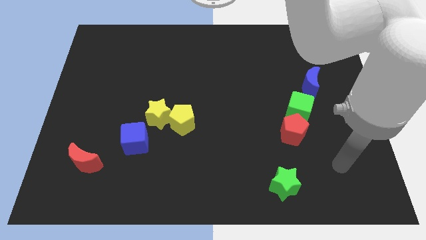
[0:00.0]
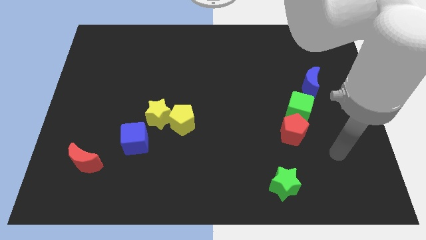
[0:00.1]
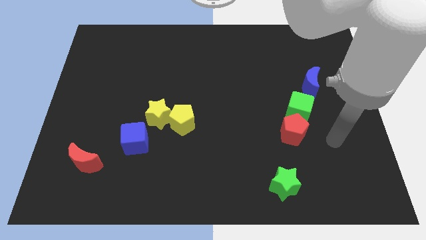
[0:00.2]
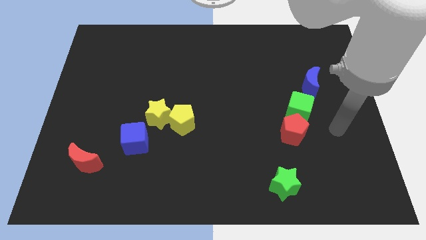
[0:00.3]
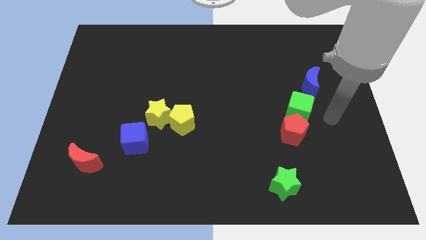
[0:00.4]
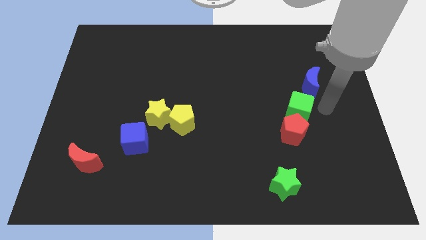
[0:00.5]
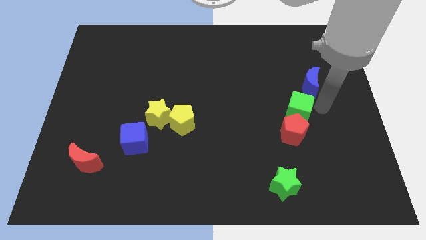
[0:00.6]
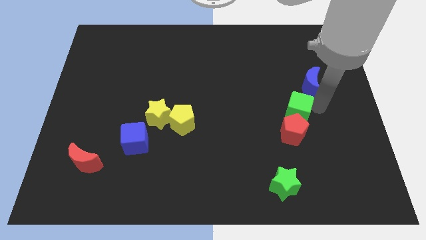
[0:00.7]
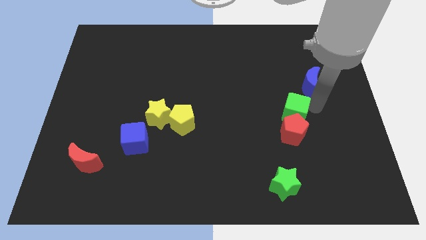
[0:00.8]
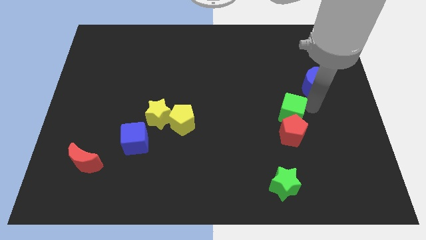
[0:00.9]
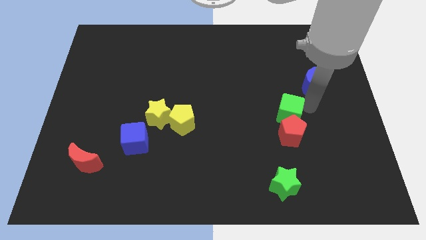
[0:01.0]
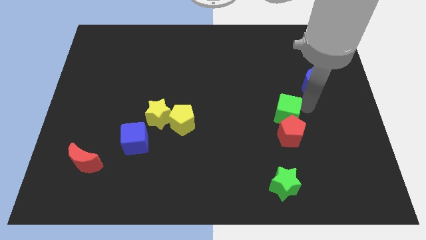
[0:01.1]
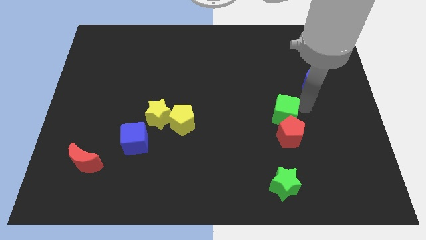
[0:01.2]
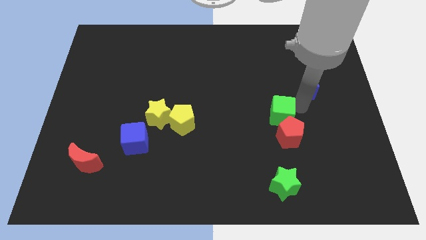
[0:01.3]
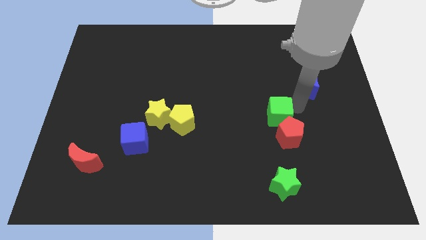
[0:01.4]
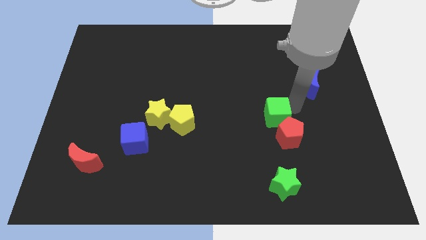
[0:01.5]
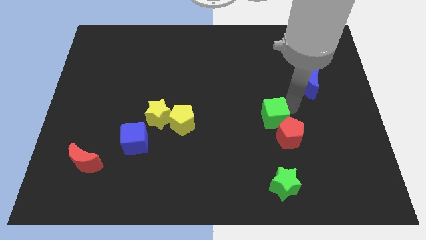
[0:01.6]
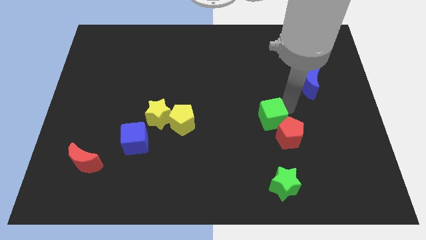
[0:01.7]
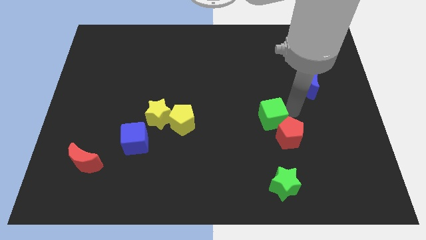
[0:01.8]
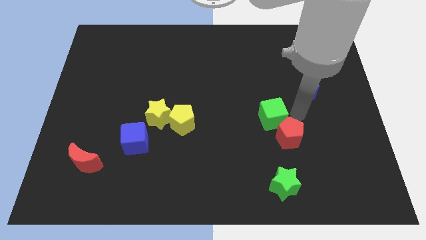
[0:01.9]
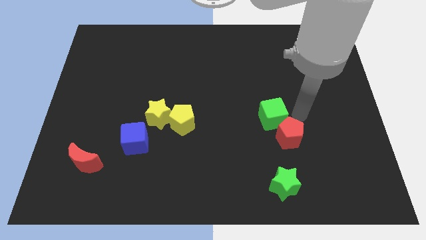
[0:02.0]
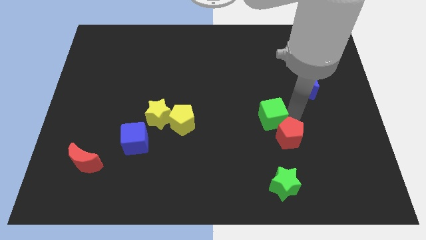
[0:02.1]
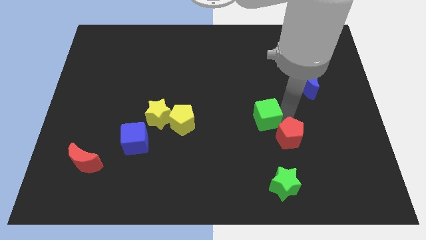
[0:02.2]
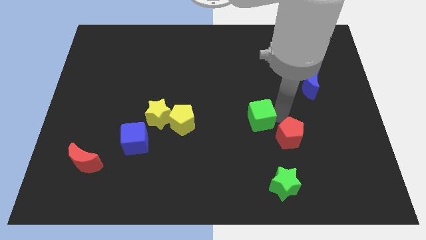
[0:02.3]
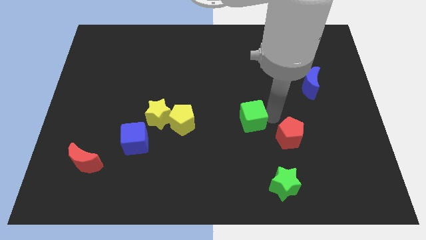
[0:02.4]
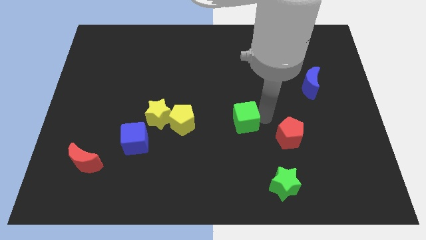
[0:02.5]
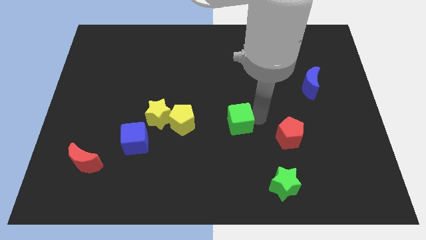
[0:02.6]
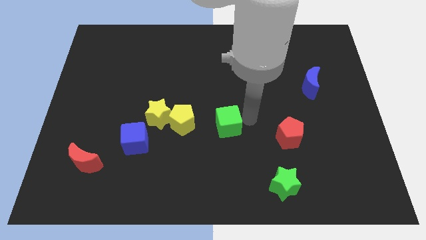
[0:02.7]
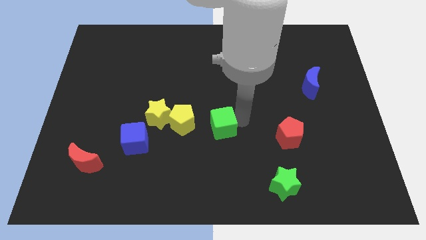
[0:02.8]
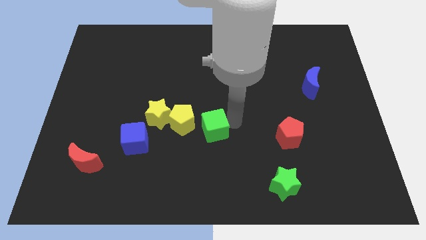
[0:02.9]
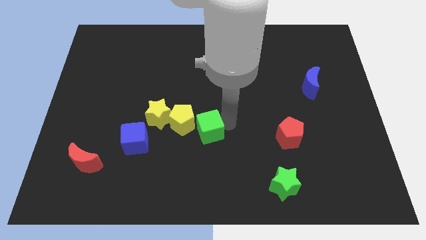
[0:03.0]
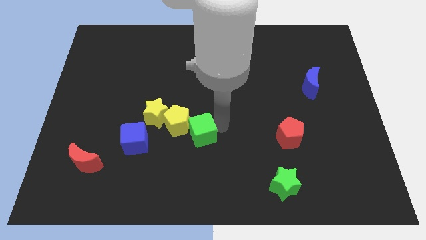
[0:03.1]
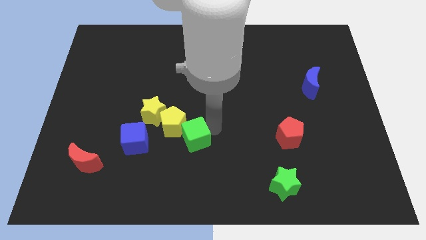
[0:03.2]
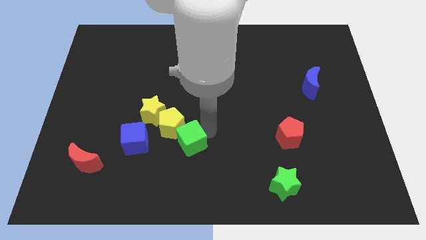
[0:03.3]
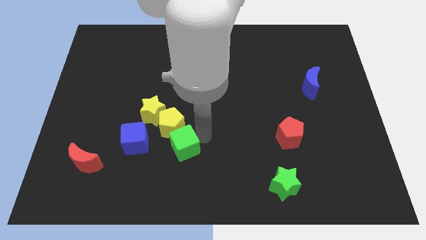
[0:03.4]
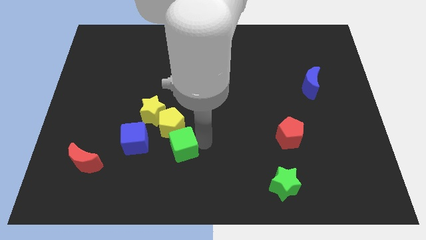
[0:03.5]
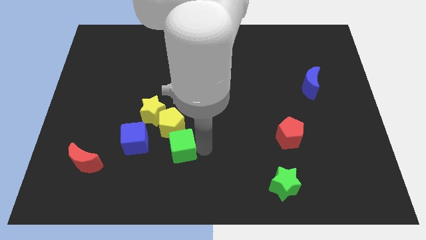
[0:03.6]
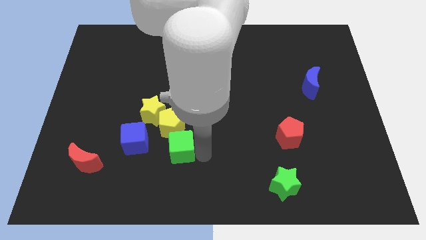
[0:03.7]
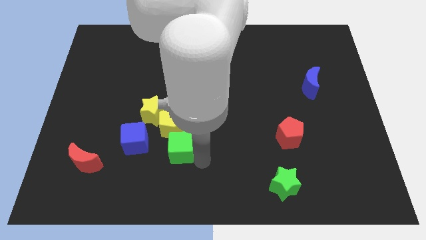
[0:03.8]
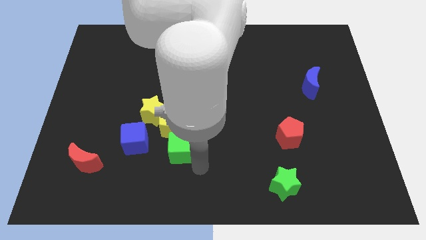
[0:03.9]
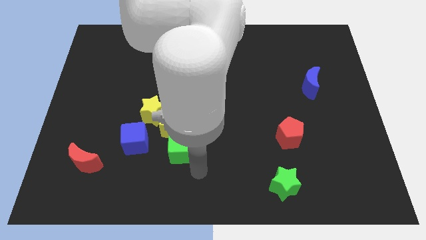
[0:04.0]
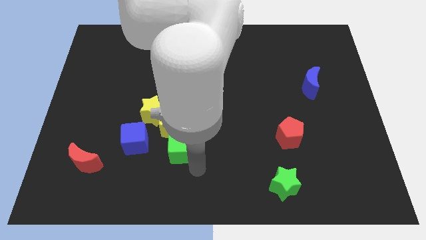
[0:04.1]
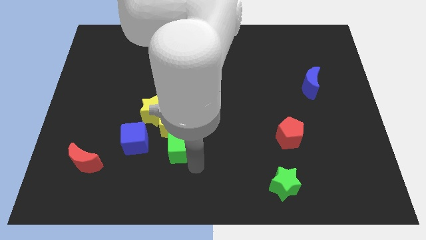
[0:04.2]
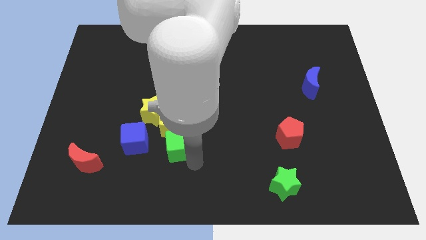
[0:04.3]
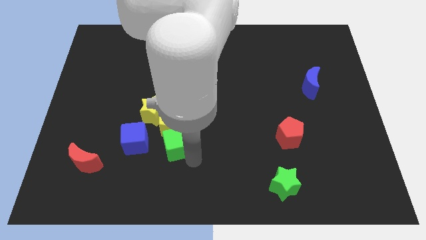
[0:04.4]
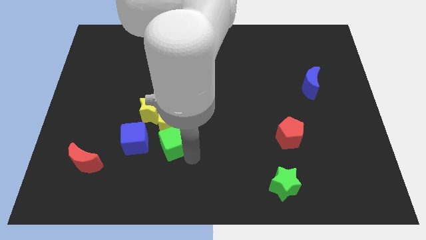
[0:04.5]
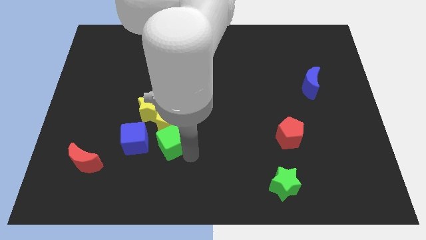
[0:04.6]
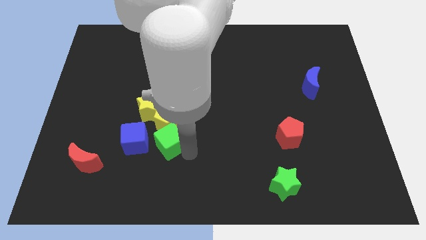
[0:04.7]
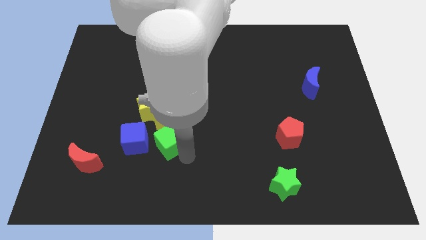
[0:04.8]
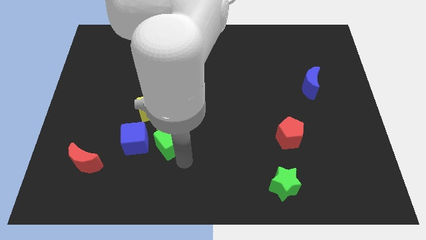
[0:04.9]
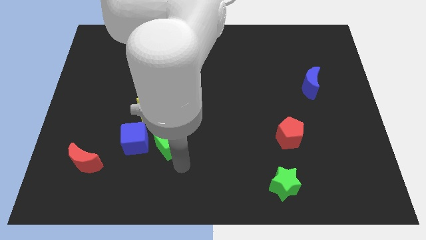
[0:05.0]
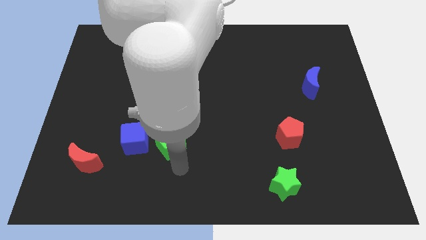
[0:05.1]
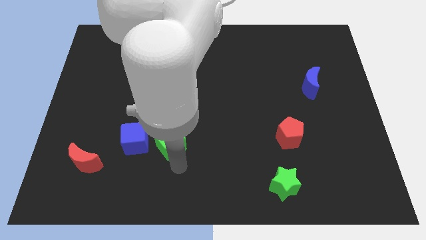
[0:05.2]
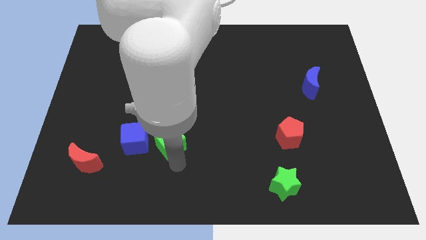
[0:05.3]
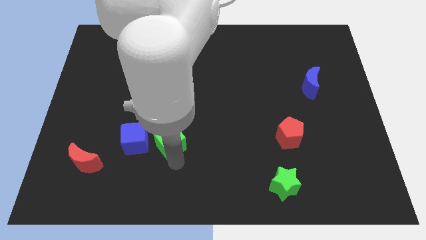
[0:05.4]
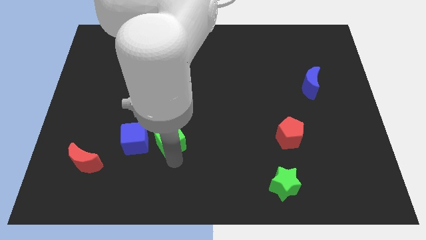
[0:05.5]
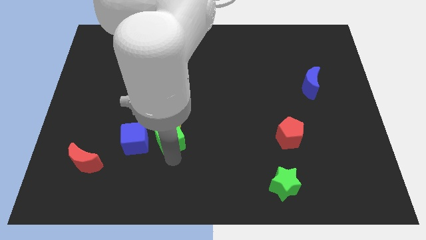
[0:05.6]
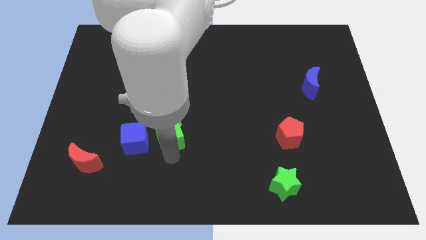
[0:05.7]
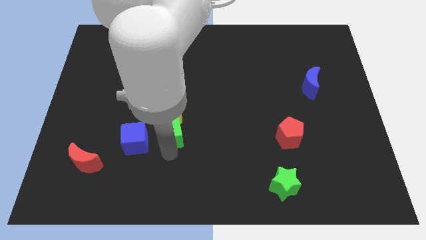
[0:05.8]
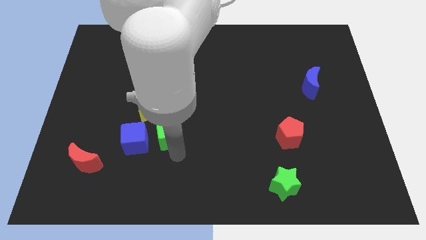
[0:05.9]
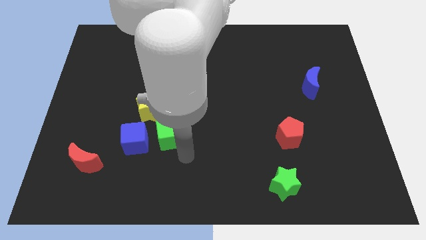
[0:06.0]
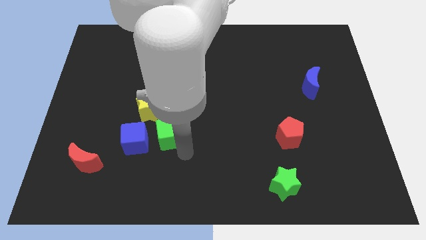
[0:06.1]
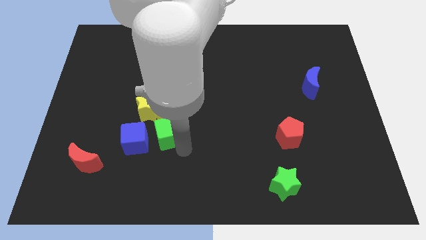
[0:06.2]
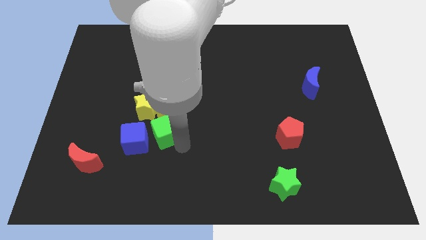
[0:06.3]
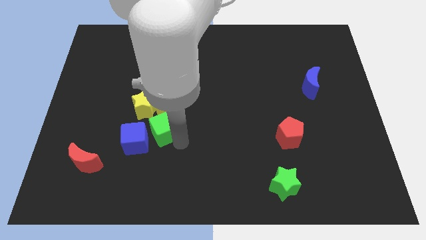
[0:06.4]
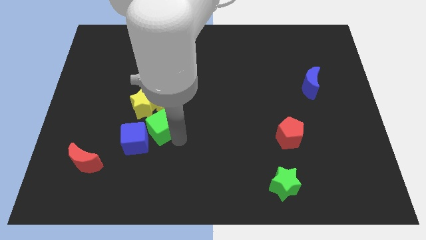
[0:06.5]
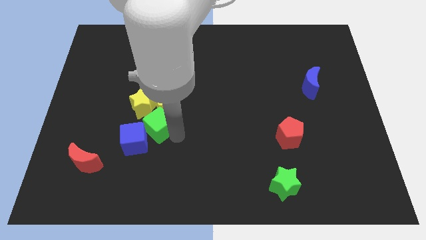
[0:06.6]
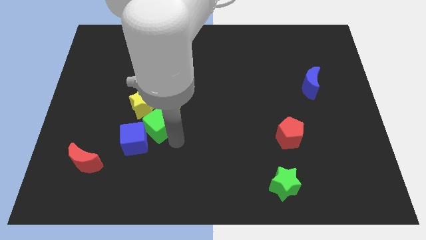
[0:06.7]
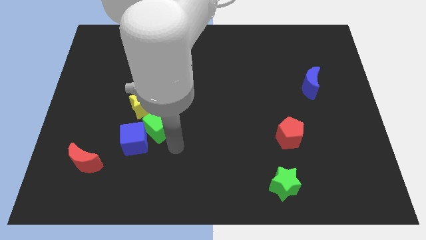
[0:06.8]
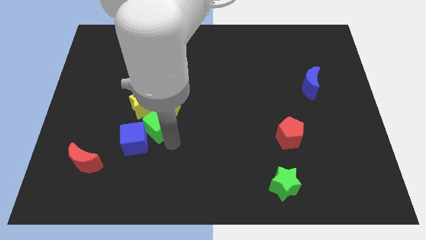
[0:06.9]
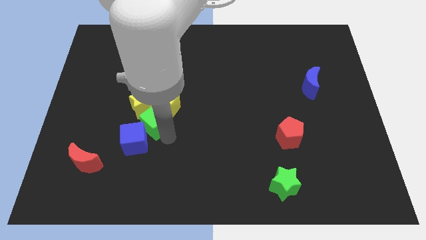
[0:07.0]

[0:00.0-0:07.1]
move the green cube next to the yellow star

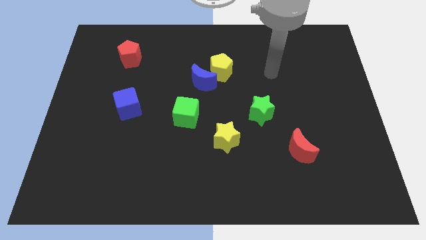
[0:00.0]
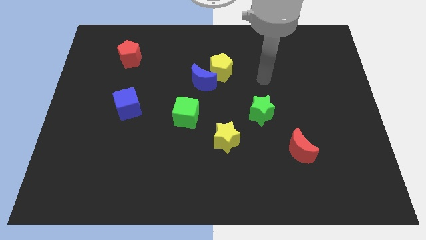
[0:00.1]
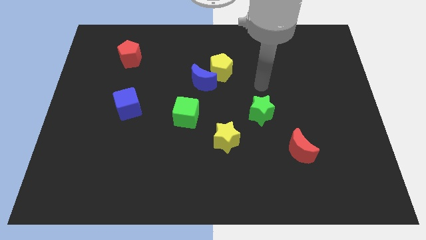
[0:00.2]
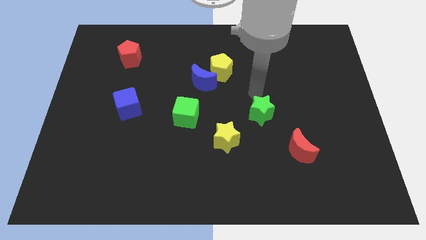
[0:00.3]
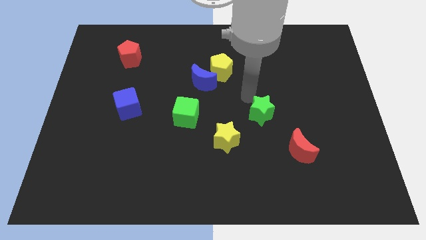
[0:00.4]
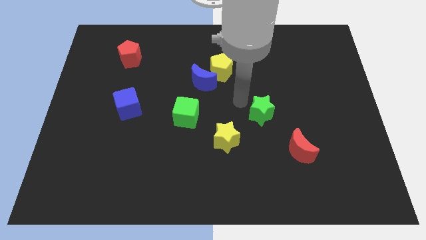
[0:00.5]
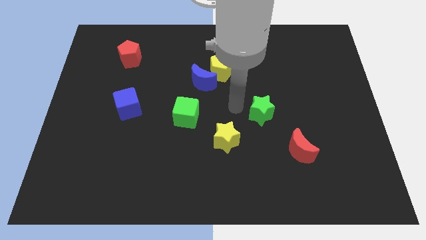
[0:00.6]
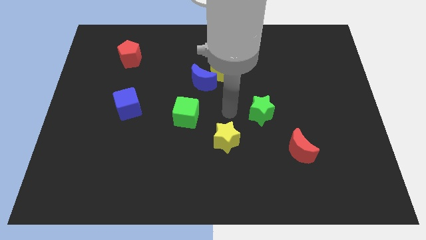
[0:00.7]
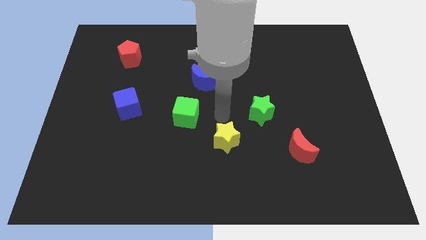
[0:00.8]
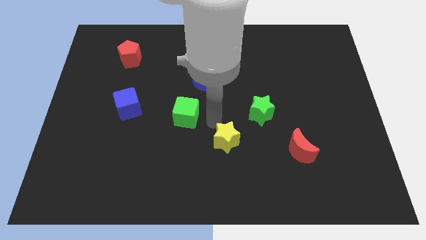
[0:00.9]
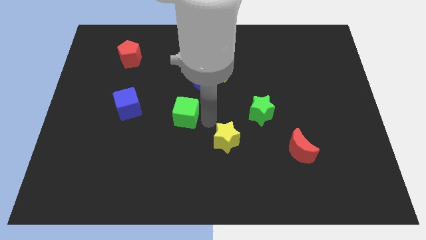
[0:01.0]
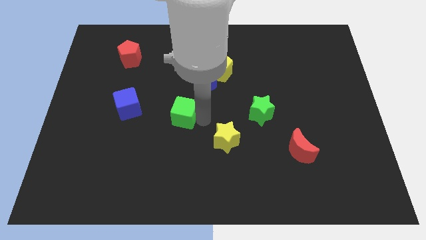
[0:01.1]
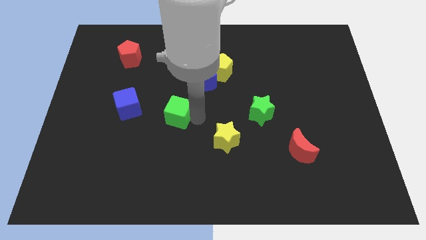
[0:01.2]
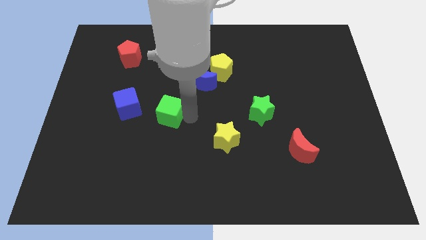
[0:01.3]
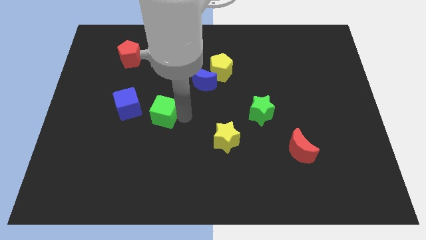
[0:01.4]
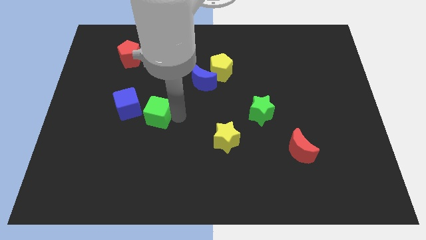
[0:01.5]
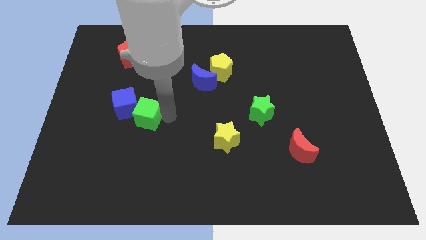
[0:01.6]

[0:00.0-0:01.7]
move the green cube towards the blue cube
